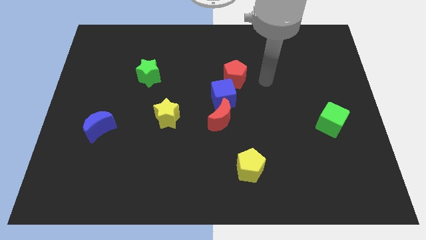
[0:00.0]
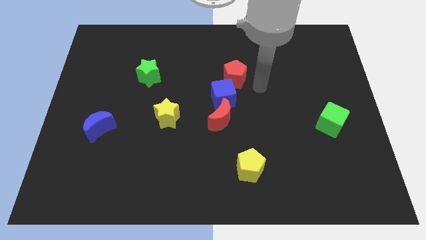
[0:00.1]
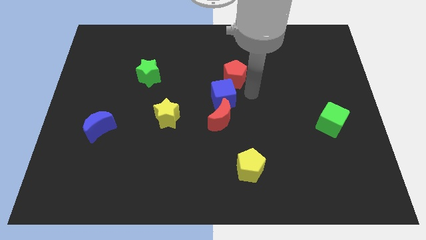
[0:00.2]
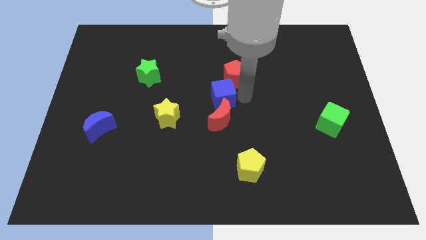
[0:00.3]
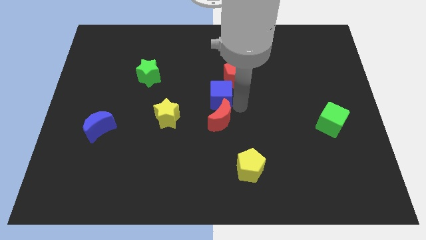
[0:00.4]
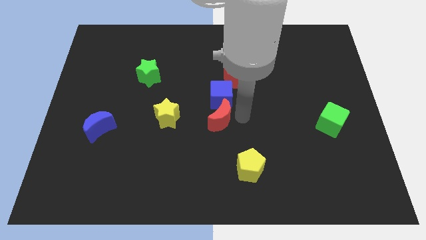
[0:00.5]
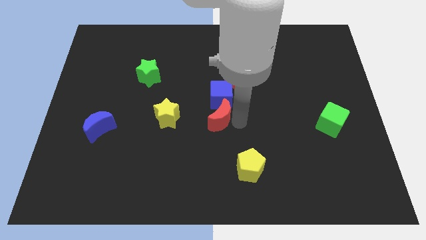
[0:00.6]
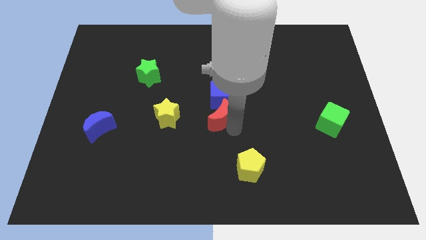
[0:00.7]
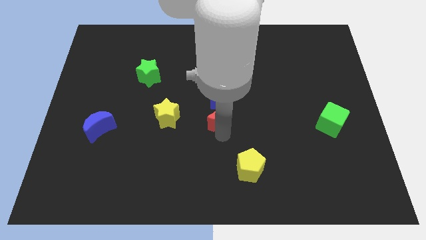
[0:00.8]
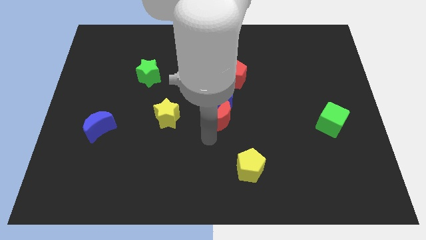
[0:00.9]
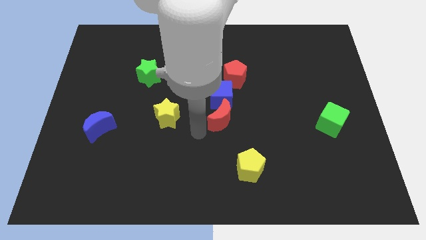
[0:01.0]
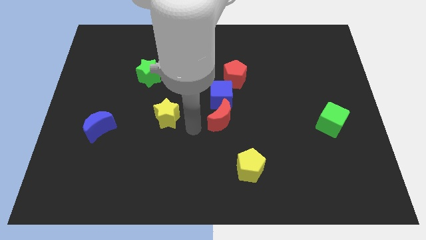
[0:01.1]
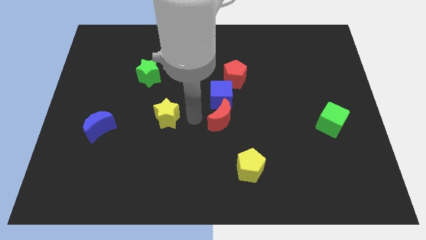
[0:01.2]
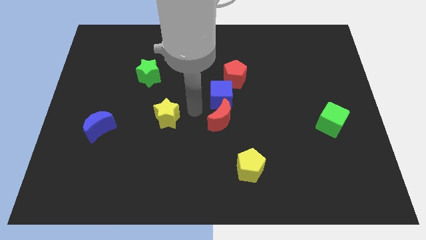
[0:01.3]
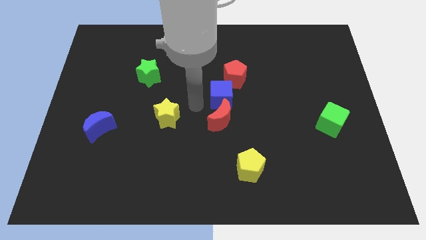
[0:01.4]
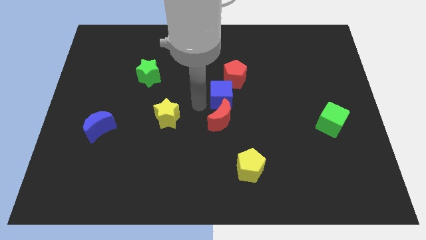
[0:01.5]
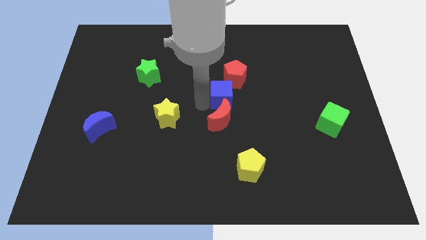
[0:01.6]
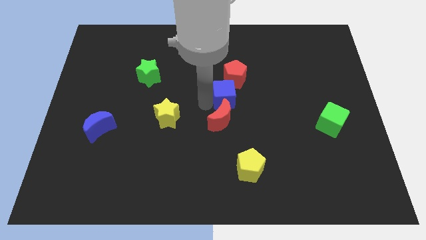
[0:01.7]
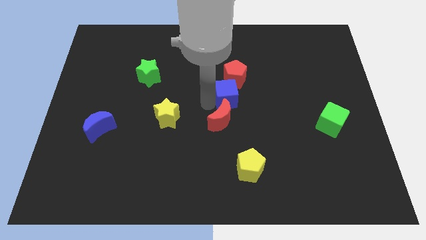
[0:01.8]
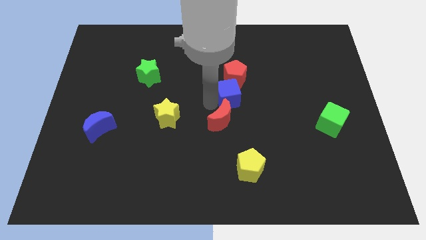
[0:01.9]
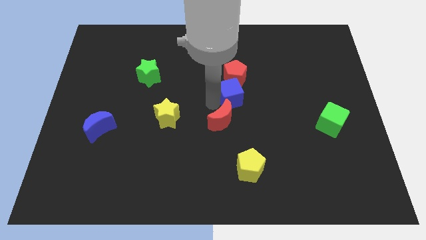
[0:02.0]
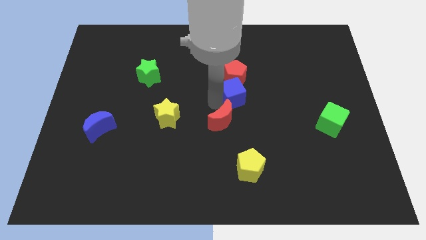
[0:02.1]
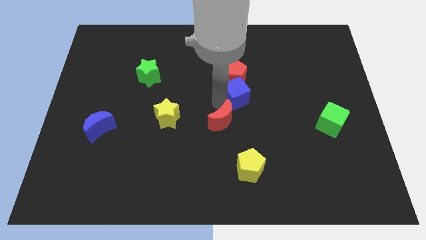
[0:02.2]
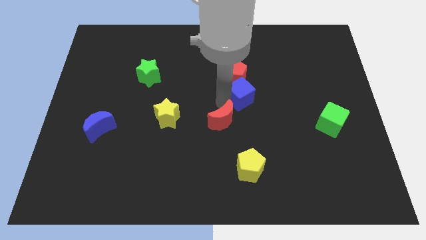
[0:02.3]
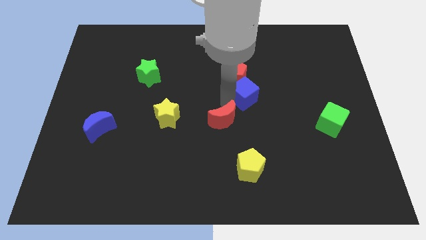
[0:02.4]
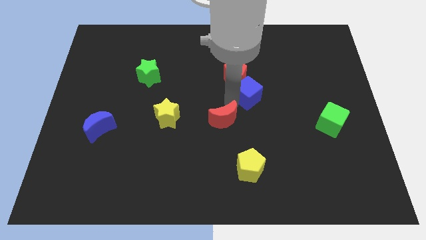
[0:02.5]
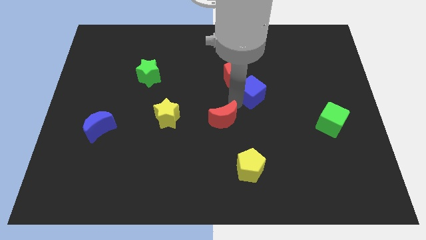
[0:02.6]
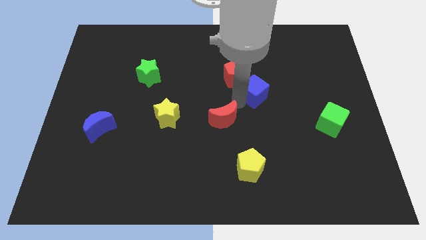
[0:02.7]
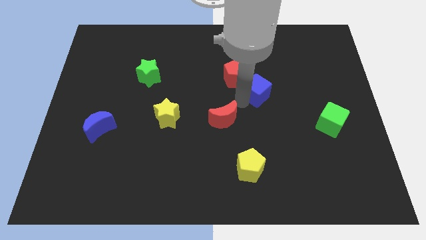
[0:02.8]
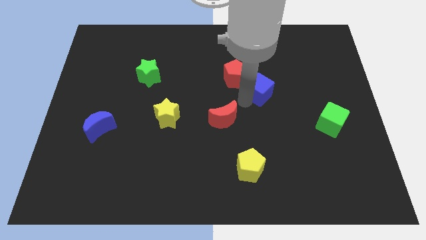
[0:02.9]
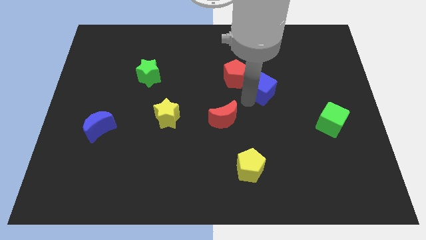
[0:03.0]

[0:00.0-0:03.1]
push the blue cube upwards and then right a little

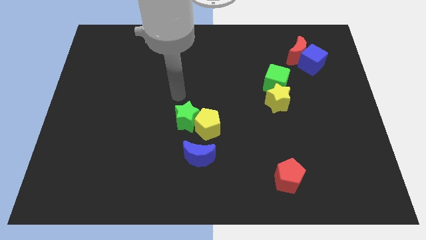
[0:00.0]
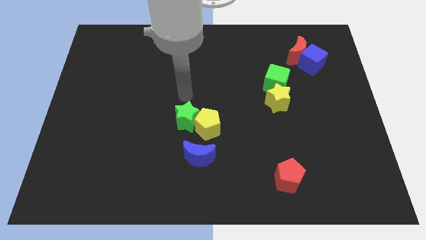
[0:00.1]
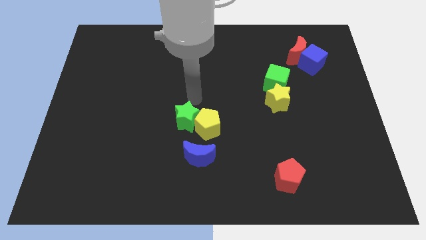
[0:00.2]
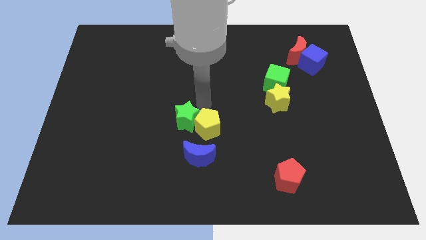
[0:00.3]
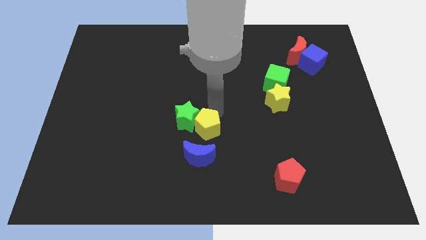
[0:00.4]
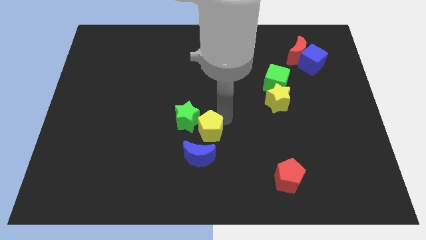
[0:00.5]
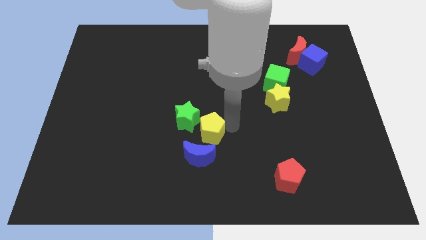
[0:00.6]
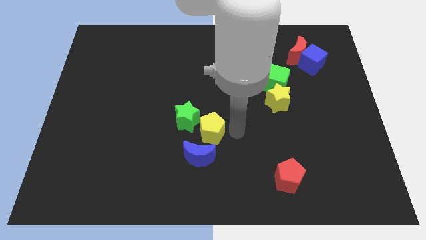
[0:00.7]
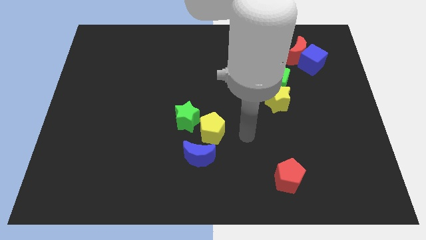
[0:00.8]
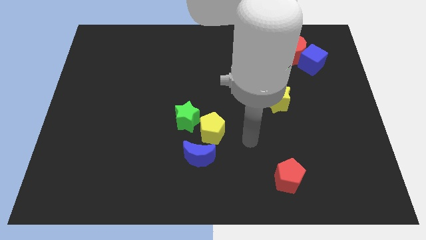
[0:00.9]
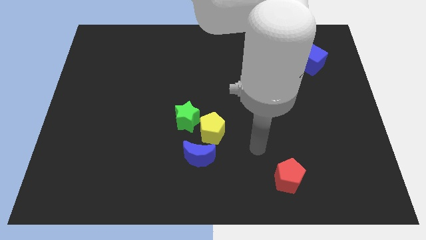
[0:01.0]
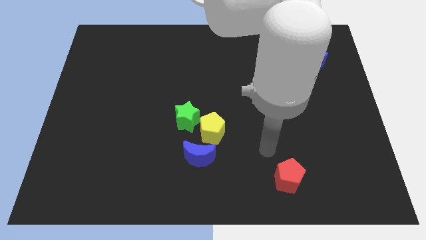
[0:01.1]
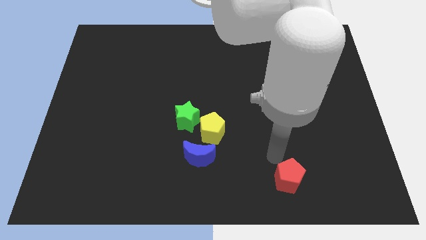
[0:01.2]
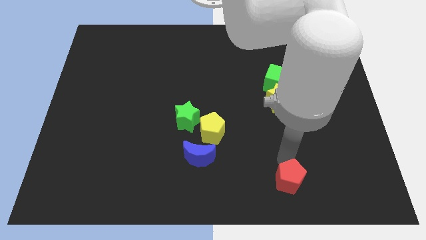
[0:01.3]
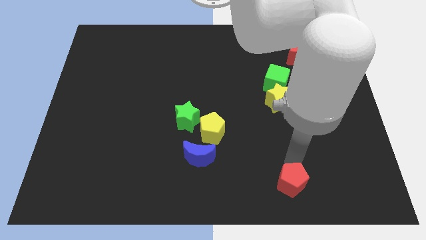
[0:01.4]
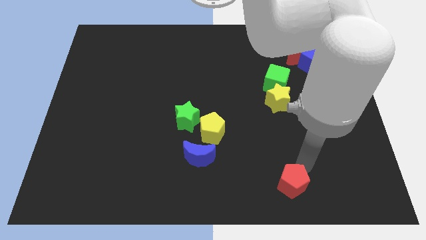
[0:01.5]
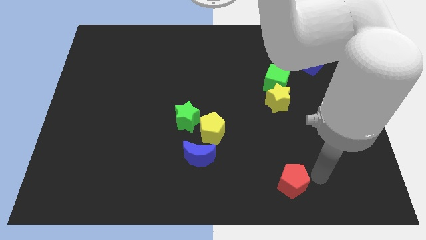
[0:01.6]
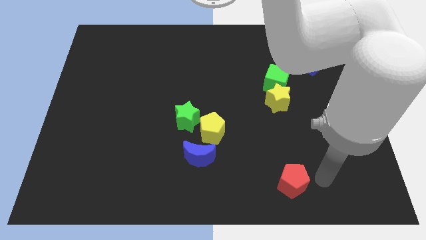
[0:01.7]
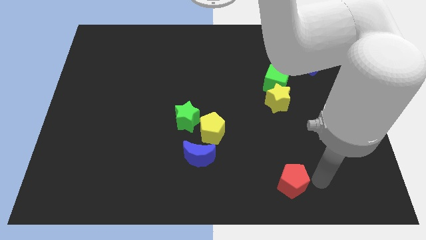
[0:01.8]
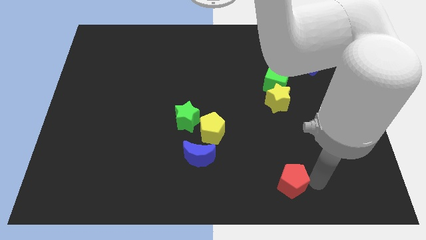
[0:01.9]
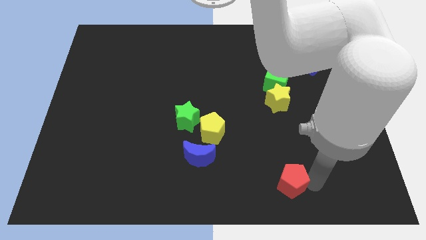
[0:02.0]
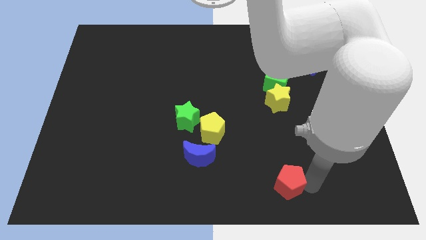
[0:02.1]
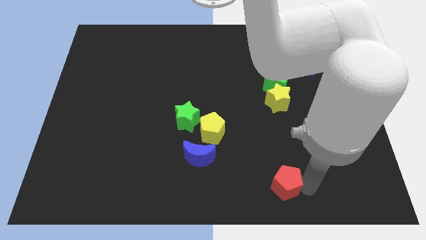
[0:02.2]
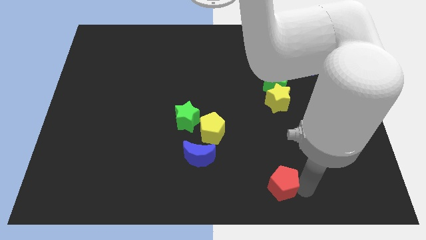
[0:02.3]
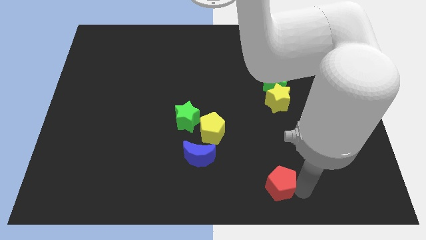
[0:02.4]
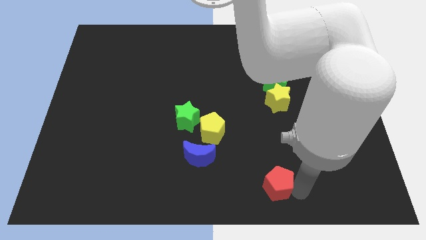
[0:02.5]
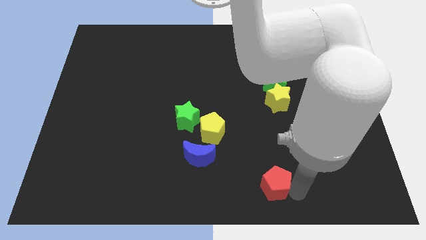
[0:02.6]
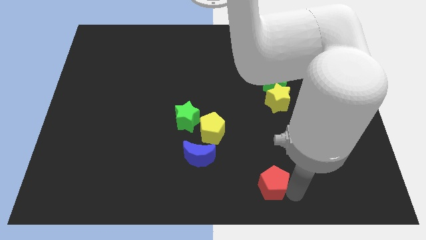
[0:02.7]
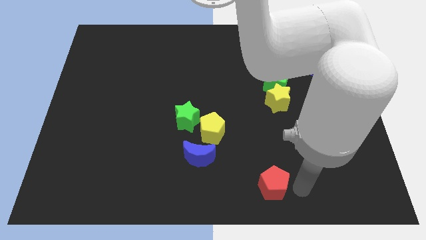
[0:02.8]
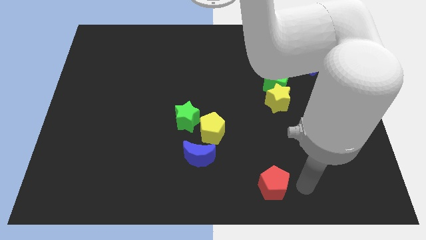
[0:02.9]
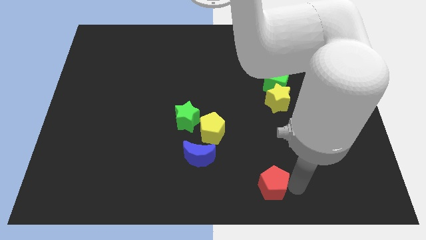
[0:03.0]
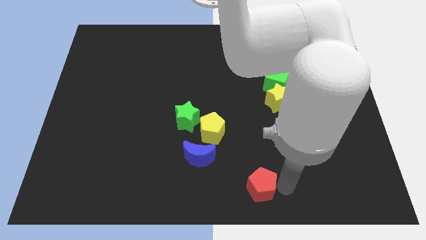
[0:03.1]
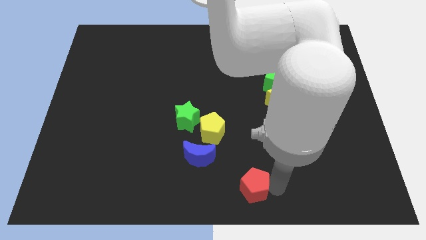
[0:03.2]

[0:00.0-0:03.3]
slightly push the red pentagon left

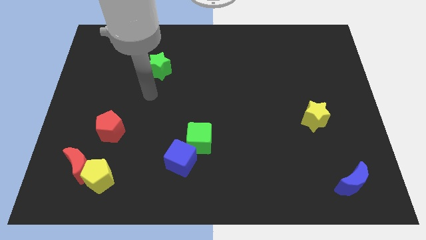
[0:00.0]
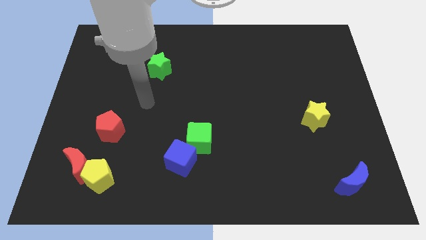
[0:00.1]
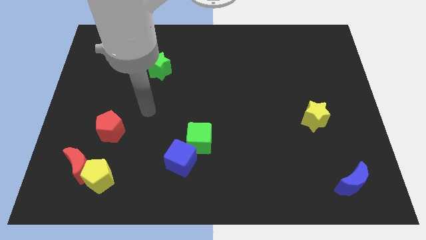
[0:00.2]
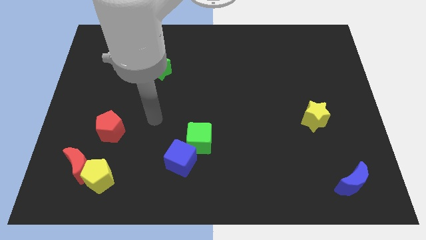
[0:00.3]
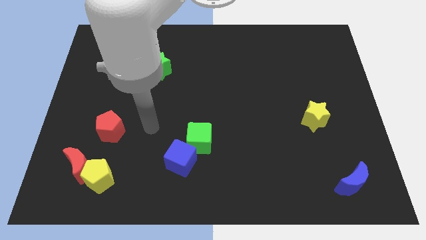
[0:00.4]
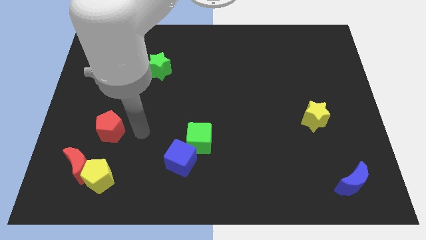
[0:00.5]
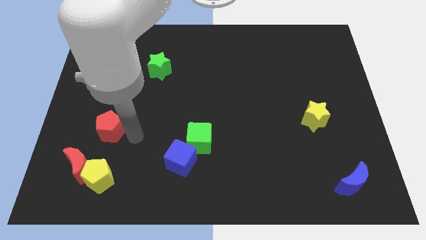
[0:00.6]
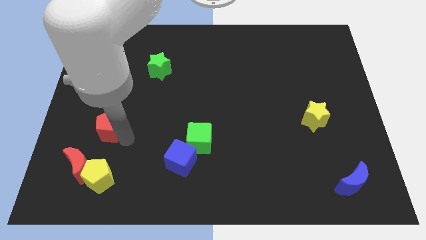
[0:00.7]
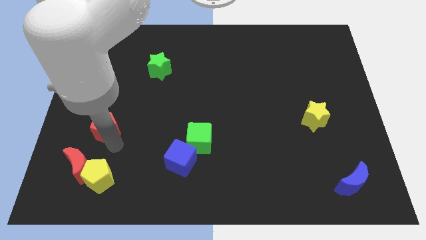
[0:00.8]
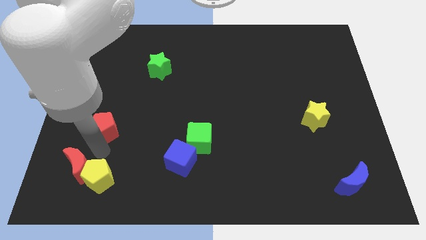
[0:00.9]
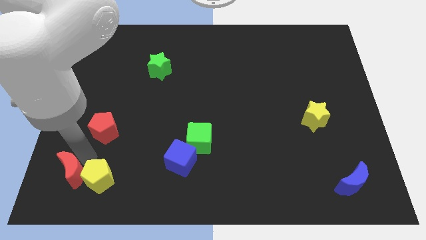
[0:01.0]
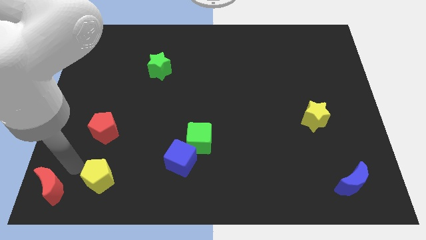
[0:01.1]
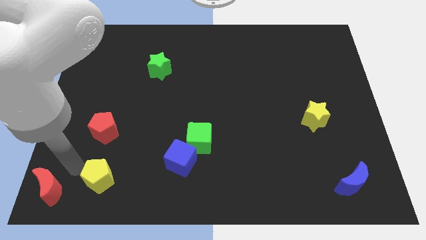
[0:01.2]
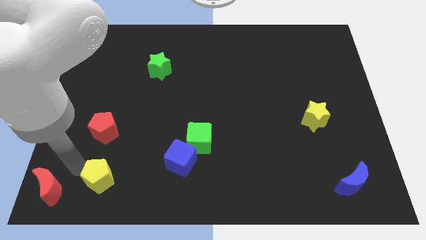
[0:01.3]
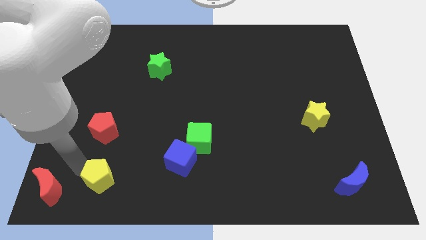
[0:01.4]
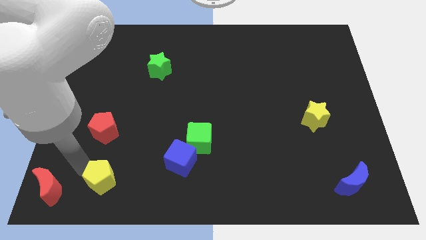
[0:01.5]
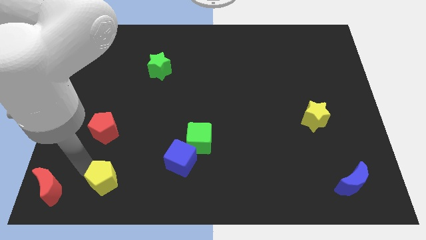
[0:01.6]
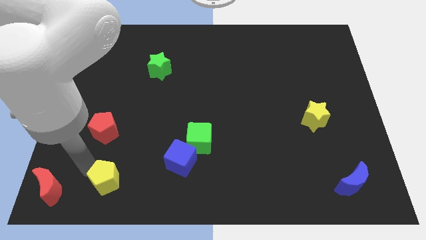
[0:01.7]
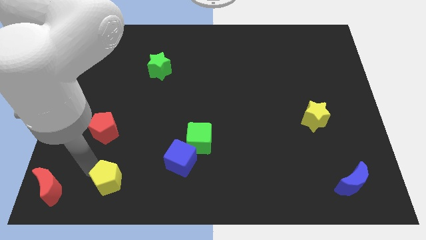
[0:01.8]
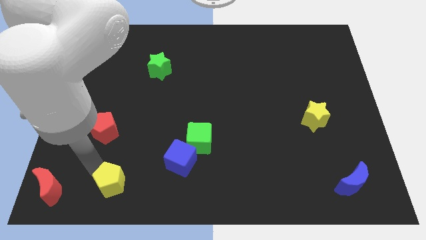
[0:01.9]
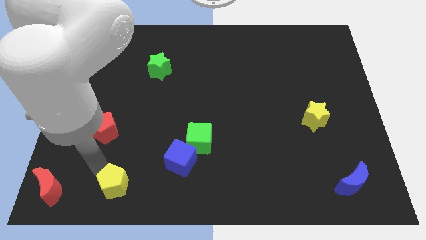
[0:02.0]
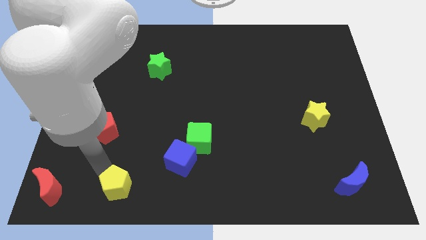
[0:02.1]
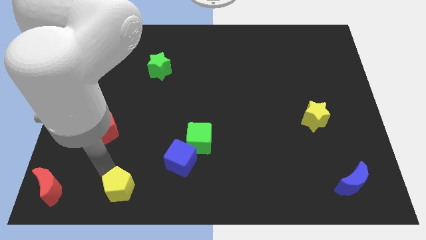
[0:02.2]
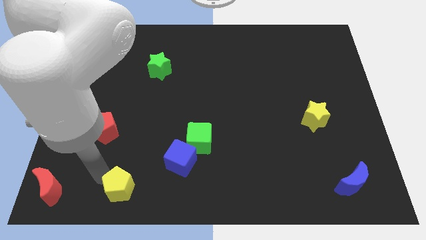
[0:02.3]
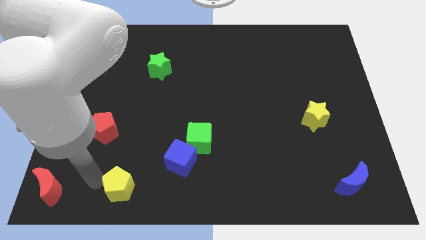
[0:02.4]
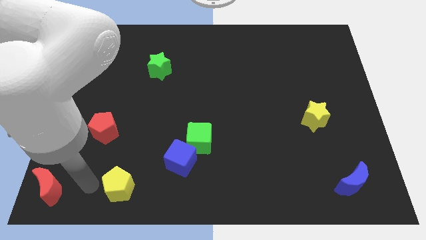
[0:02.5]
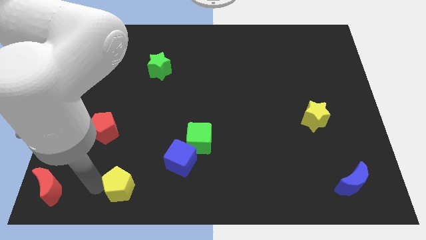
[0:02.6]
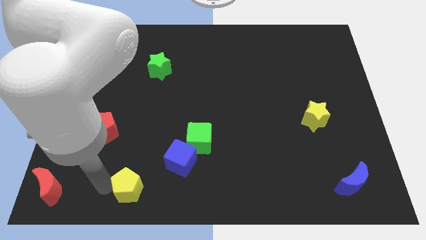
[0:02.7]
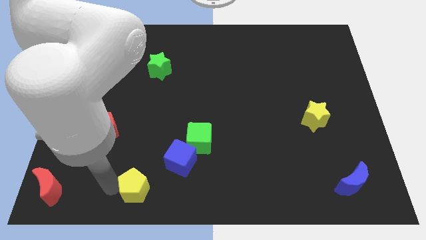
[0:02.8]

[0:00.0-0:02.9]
move the yellow pentagon a little bit right
